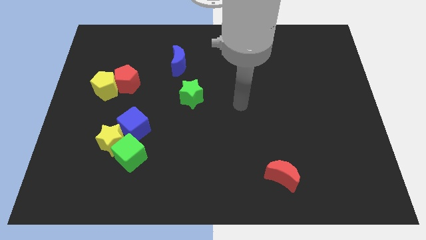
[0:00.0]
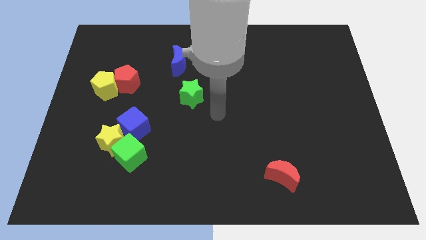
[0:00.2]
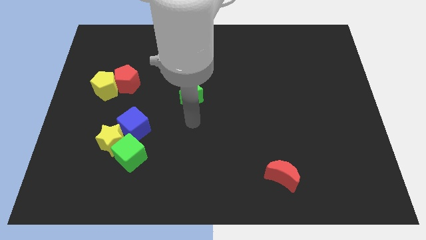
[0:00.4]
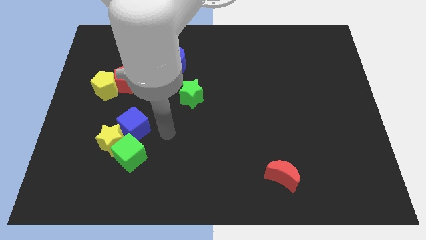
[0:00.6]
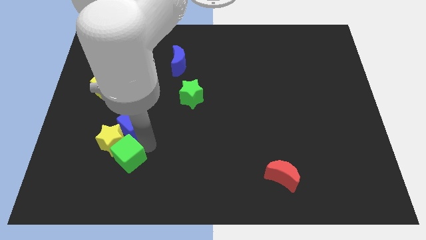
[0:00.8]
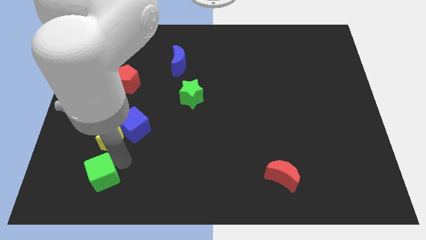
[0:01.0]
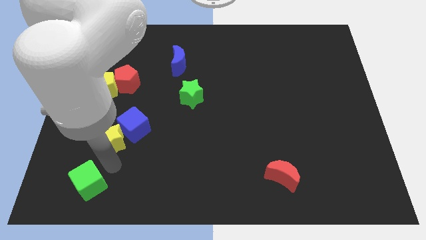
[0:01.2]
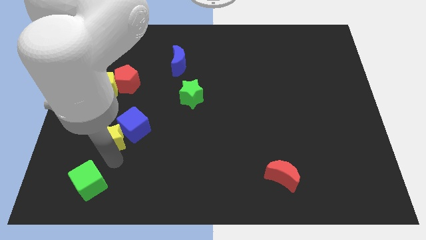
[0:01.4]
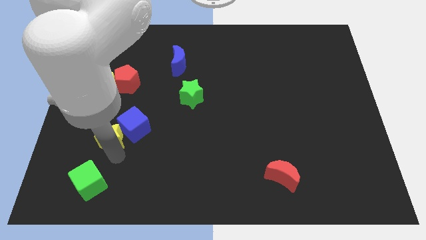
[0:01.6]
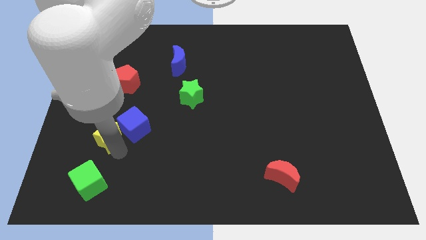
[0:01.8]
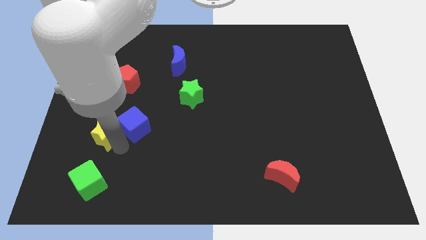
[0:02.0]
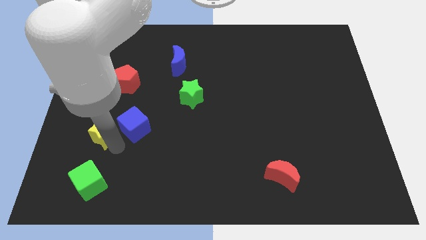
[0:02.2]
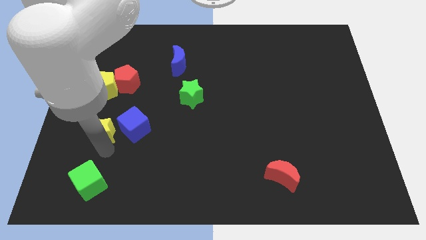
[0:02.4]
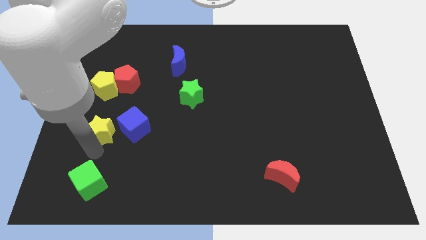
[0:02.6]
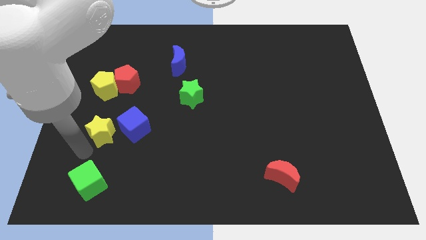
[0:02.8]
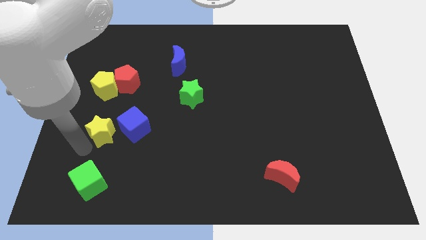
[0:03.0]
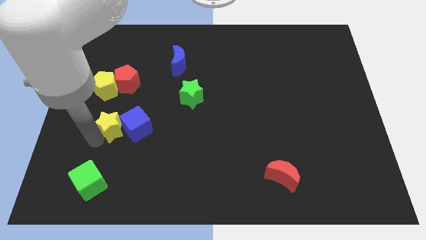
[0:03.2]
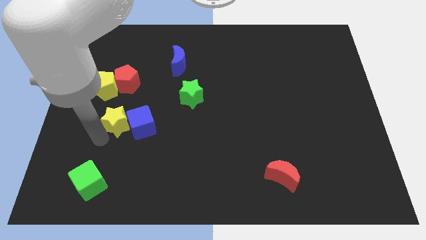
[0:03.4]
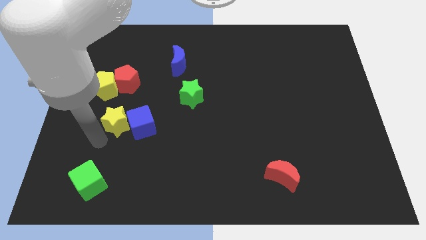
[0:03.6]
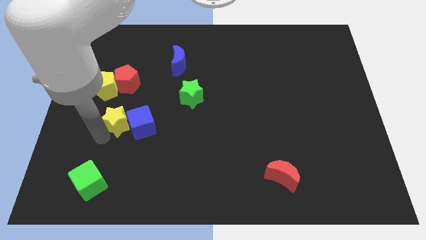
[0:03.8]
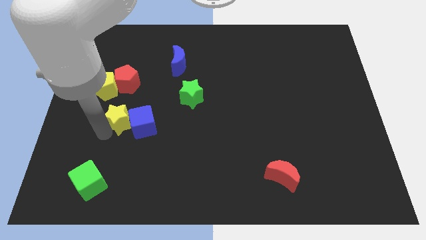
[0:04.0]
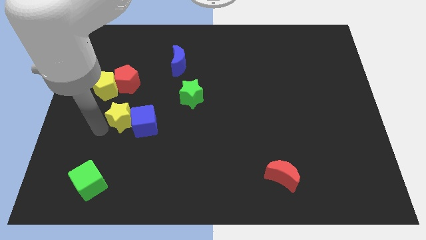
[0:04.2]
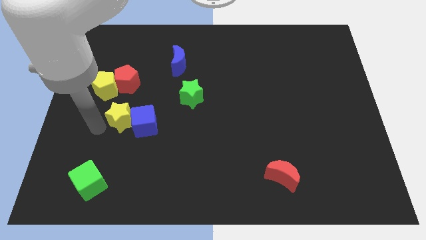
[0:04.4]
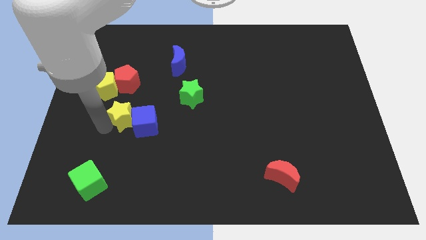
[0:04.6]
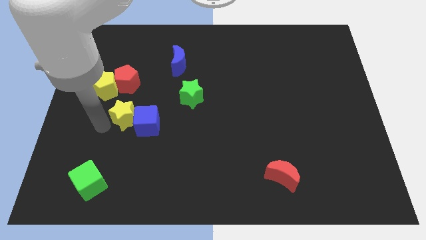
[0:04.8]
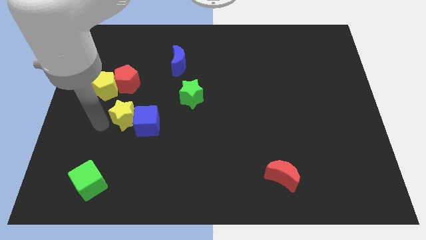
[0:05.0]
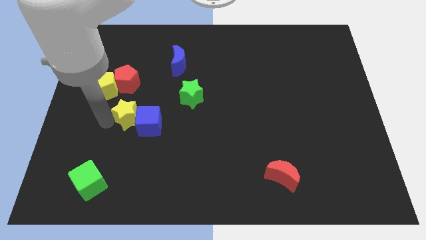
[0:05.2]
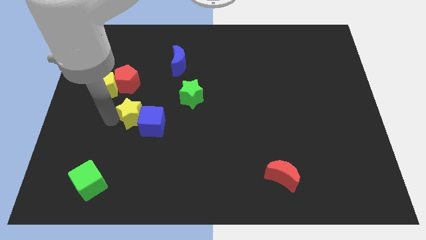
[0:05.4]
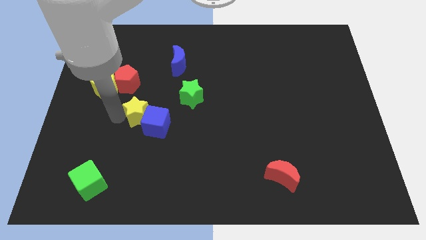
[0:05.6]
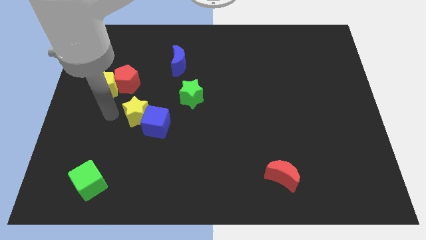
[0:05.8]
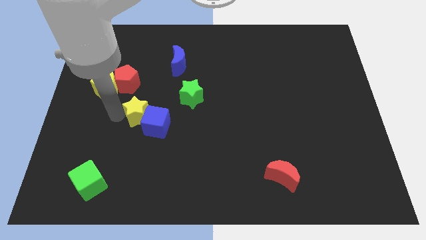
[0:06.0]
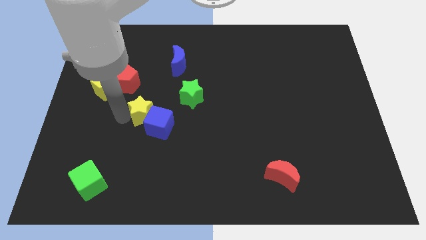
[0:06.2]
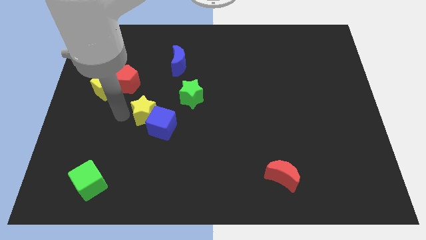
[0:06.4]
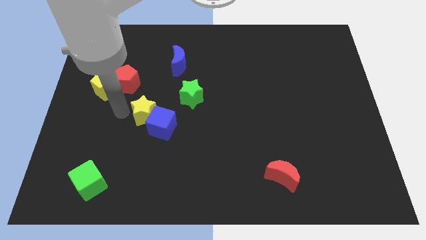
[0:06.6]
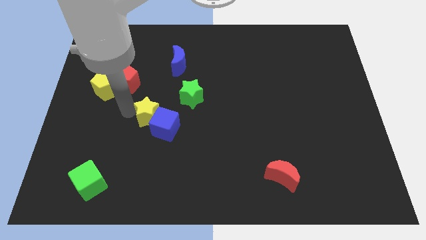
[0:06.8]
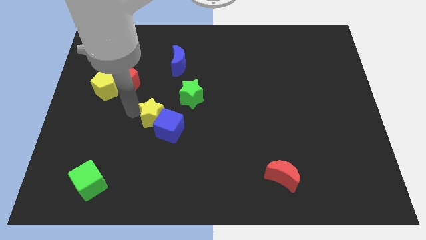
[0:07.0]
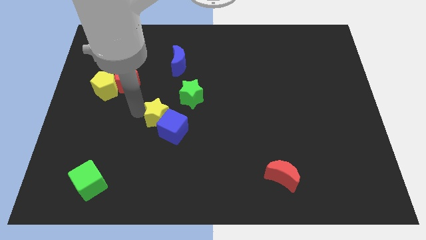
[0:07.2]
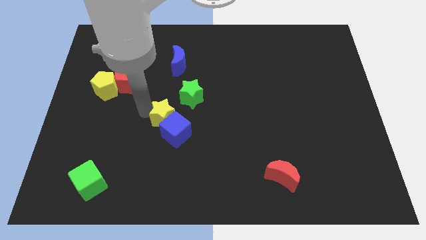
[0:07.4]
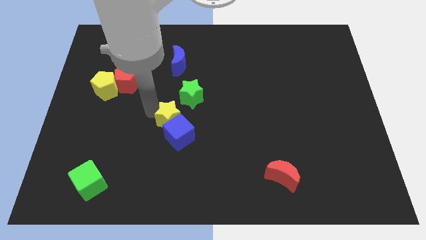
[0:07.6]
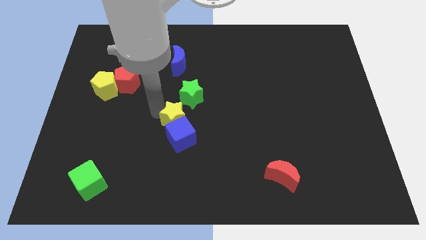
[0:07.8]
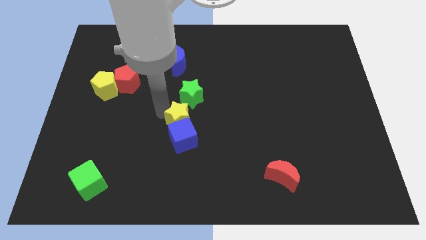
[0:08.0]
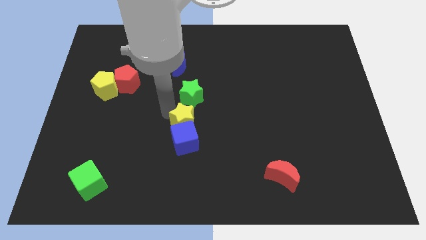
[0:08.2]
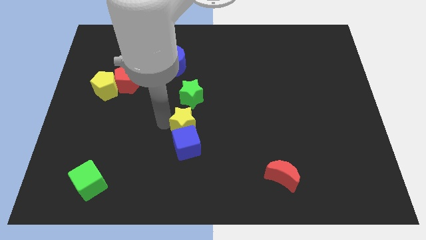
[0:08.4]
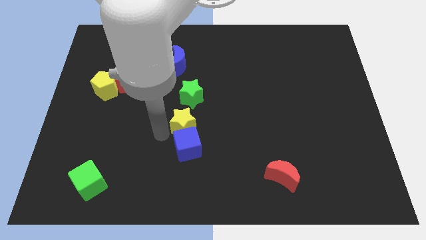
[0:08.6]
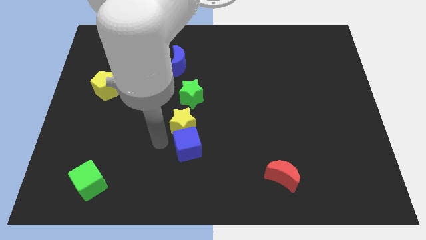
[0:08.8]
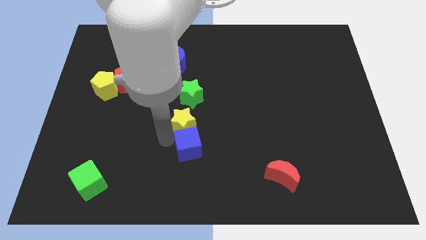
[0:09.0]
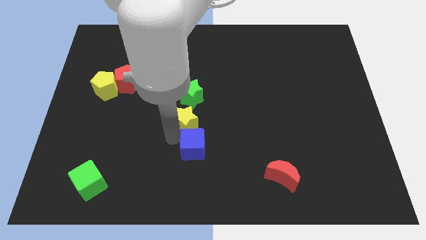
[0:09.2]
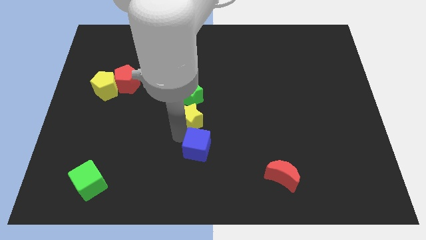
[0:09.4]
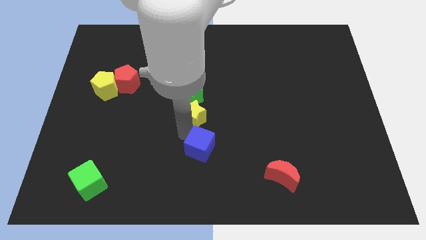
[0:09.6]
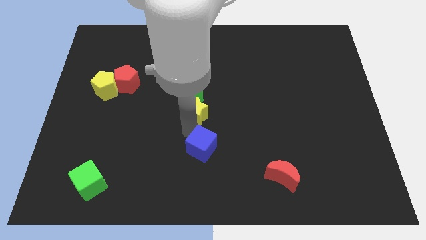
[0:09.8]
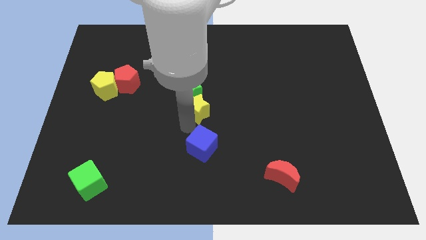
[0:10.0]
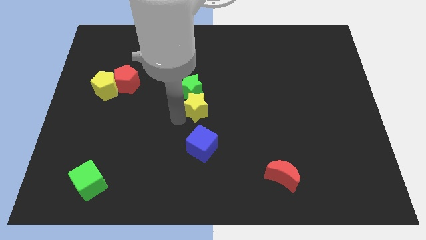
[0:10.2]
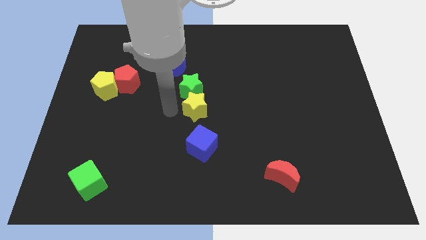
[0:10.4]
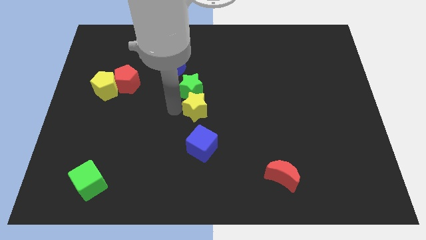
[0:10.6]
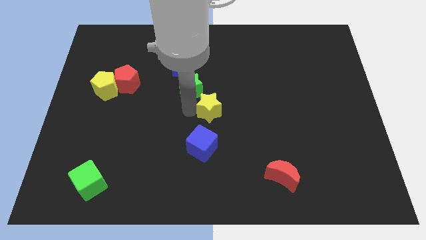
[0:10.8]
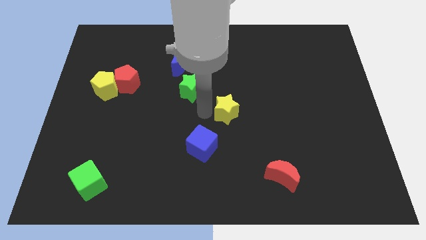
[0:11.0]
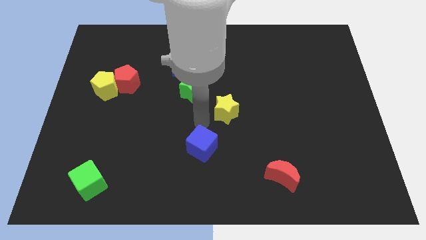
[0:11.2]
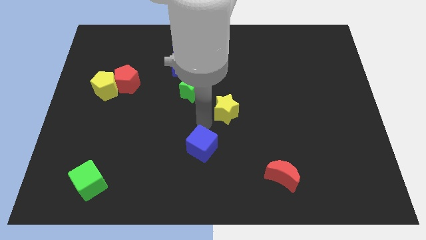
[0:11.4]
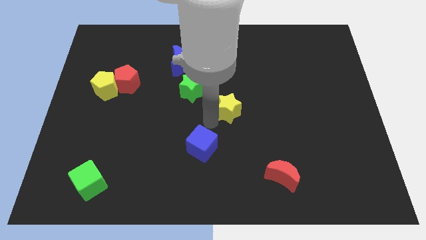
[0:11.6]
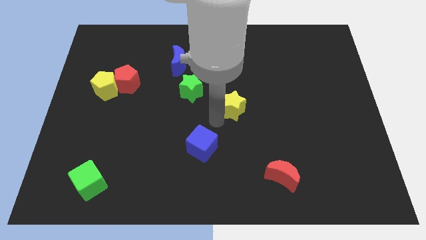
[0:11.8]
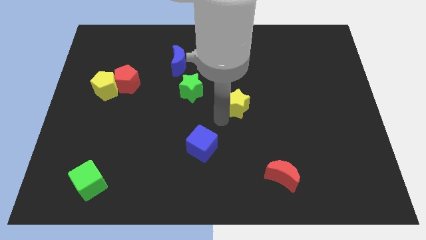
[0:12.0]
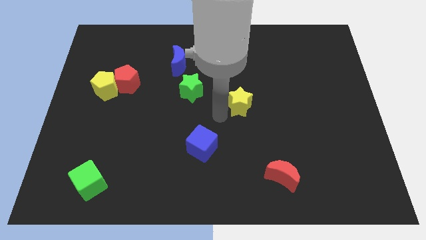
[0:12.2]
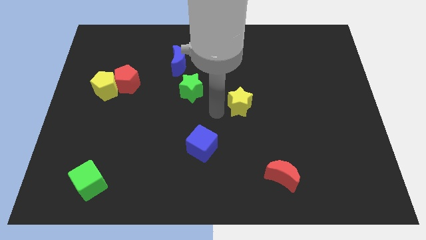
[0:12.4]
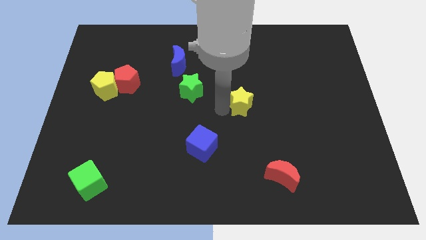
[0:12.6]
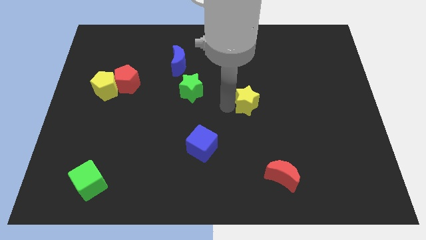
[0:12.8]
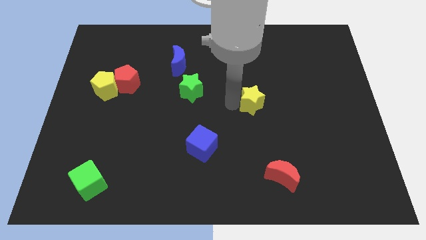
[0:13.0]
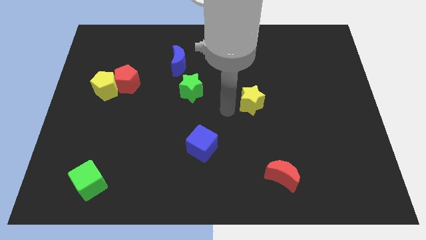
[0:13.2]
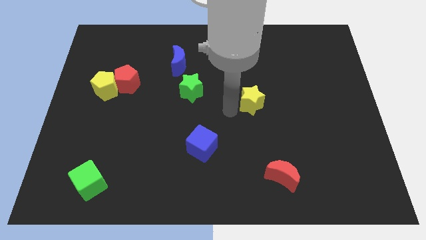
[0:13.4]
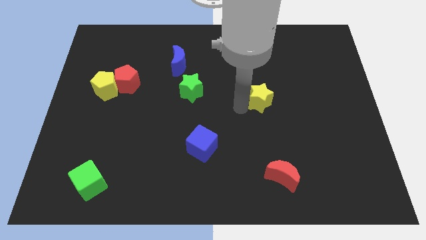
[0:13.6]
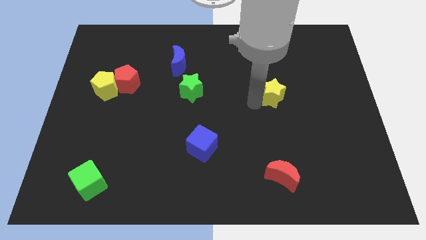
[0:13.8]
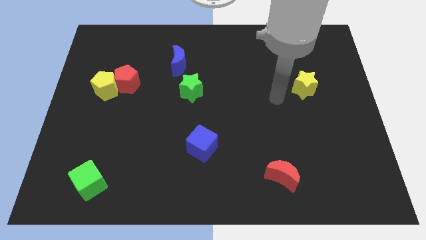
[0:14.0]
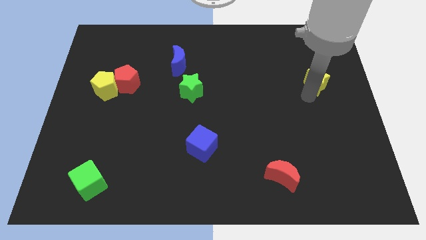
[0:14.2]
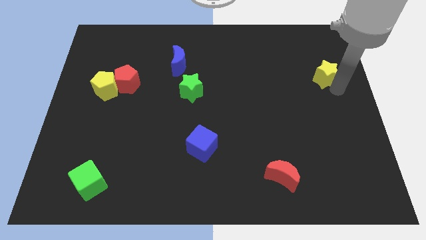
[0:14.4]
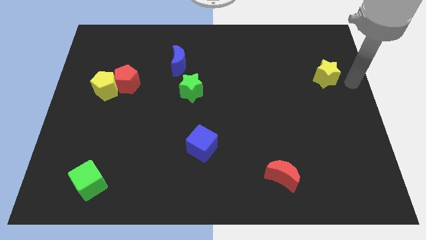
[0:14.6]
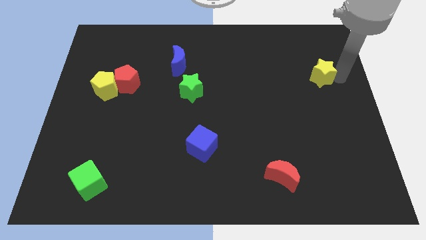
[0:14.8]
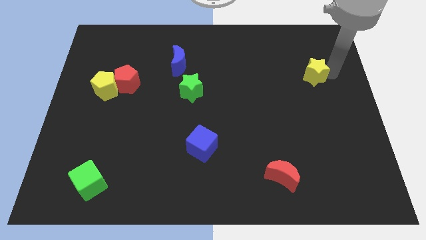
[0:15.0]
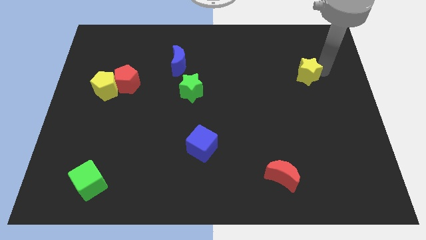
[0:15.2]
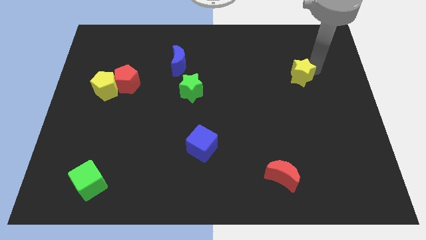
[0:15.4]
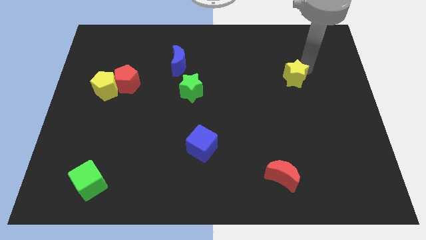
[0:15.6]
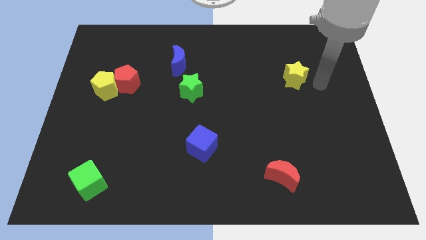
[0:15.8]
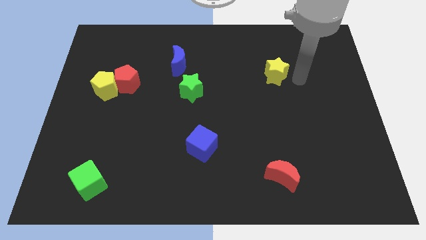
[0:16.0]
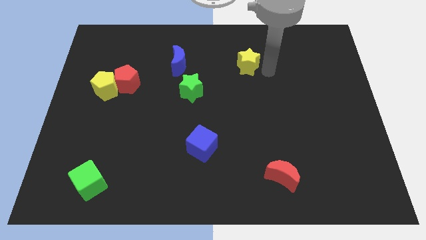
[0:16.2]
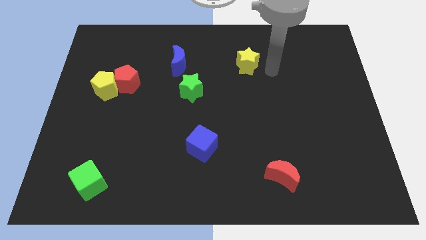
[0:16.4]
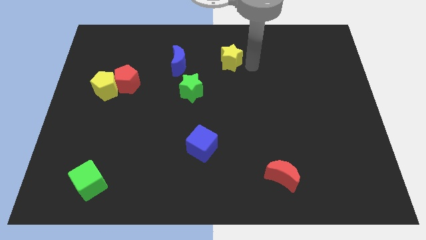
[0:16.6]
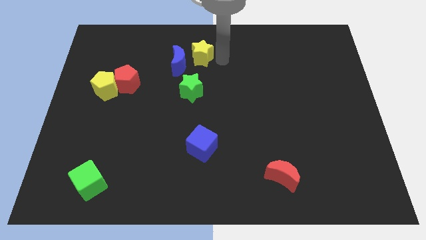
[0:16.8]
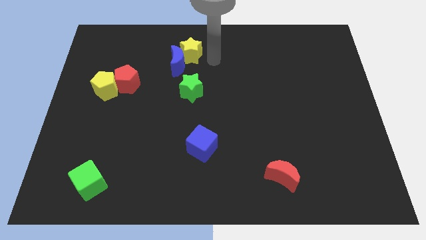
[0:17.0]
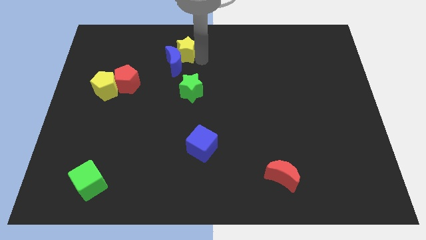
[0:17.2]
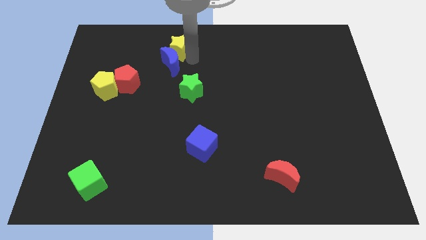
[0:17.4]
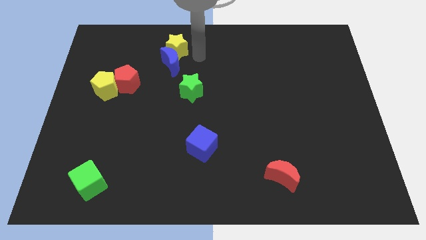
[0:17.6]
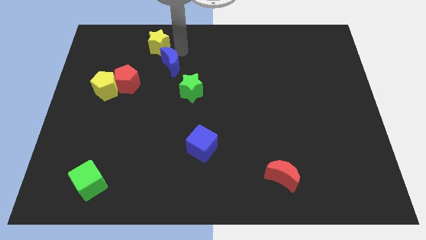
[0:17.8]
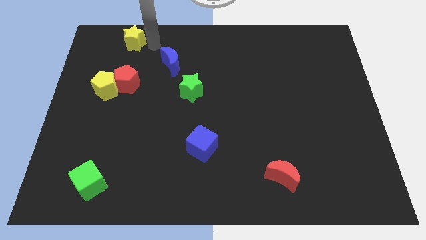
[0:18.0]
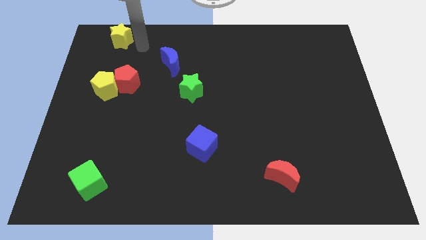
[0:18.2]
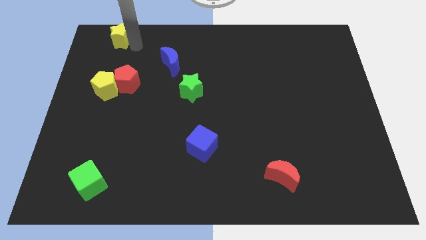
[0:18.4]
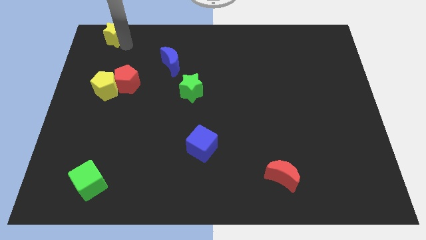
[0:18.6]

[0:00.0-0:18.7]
slide the yellow star to the top left of the board
